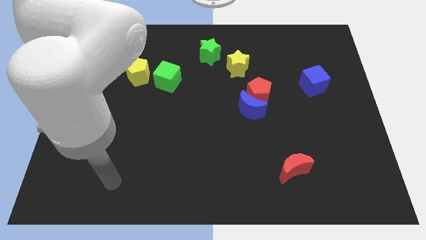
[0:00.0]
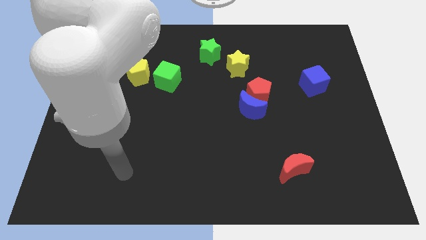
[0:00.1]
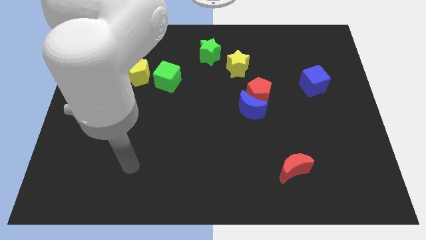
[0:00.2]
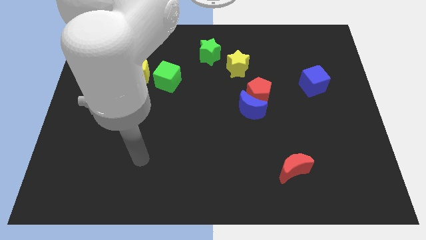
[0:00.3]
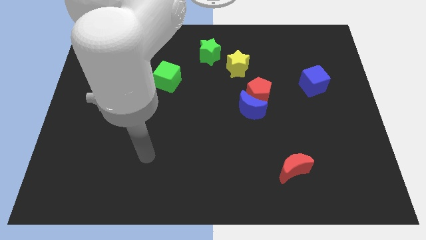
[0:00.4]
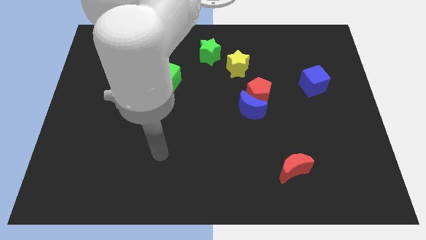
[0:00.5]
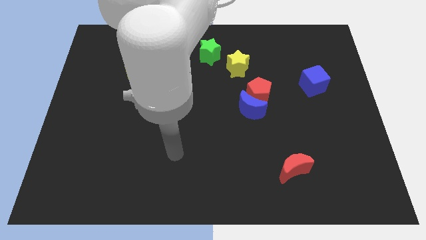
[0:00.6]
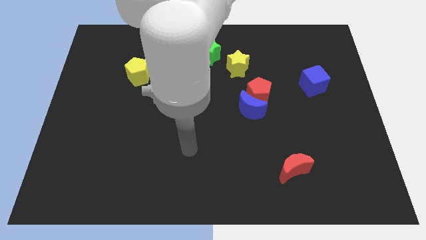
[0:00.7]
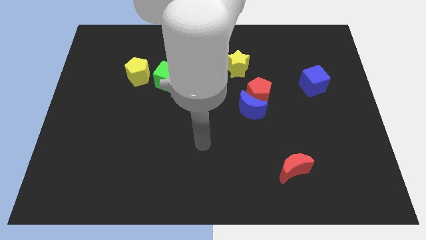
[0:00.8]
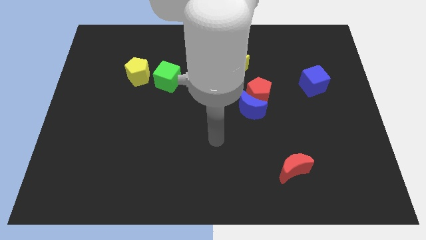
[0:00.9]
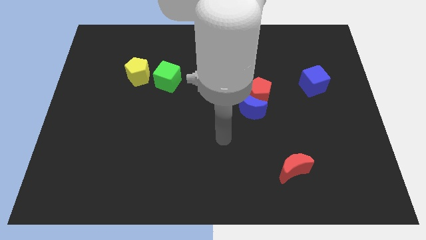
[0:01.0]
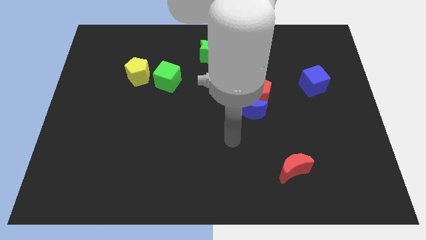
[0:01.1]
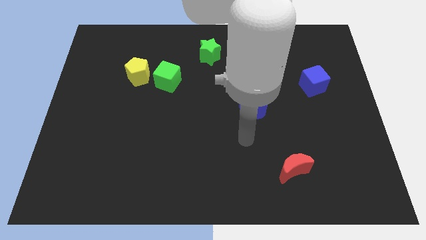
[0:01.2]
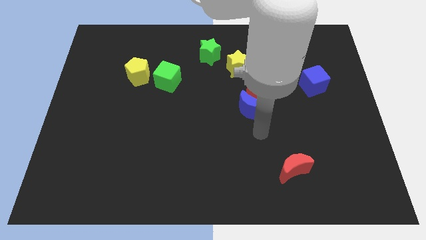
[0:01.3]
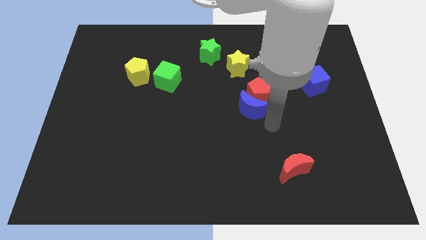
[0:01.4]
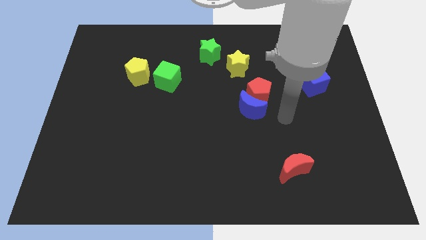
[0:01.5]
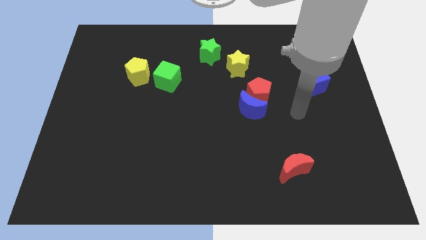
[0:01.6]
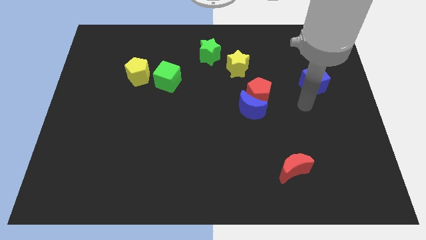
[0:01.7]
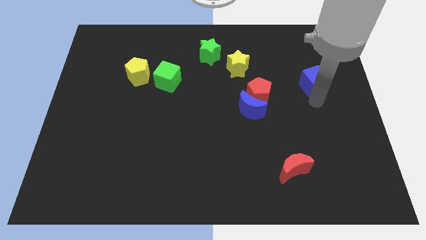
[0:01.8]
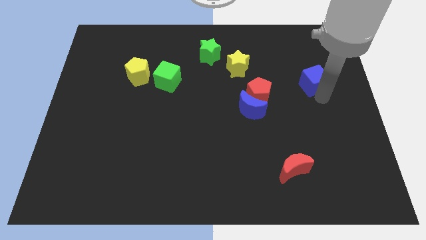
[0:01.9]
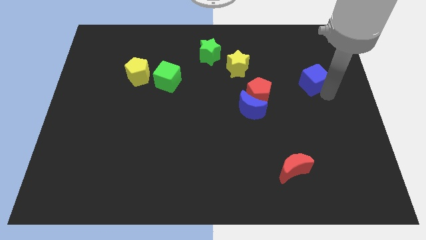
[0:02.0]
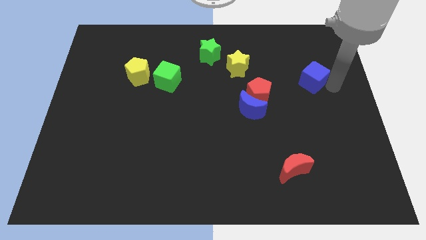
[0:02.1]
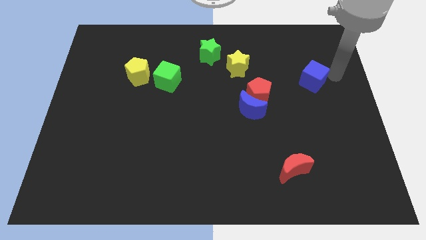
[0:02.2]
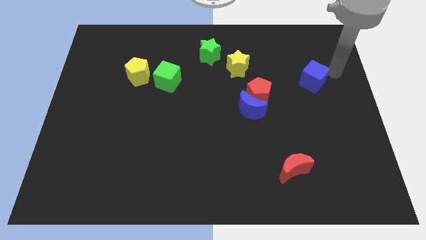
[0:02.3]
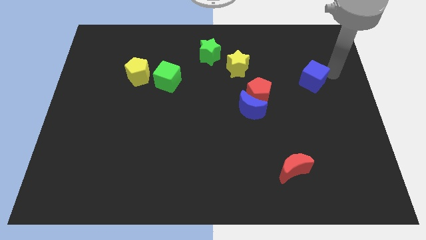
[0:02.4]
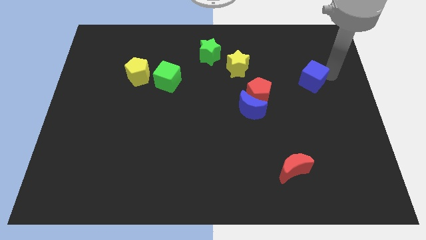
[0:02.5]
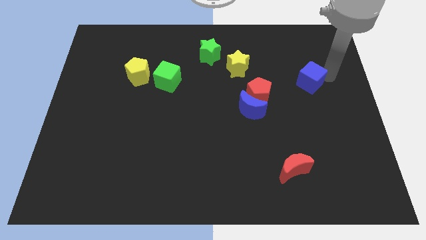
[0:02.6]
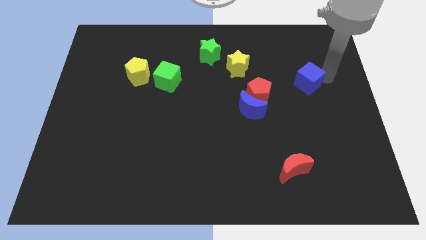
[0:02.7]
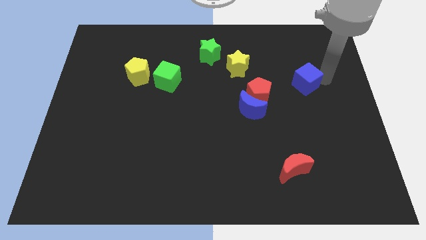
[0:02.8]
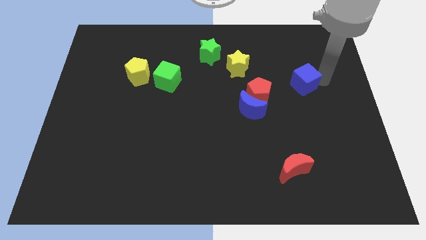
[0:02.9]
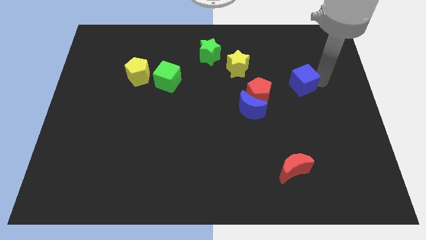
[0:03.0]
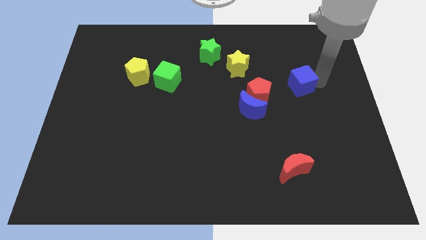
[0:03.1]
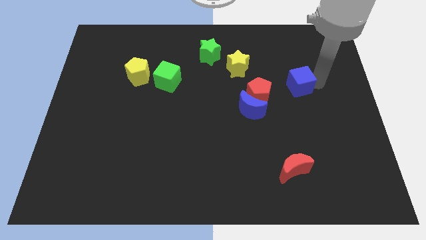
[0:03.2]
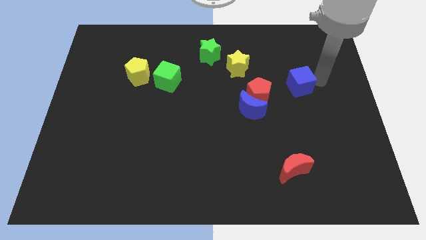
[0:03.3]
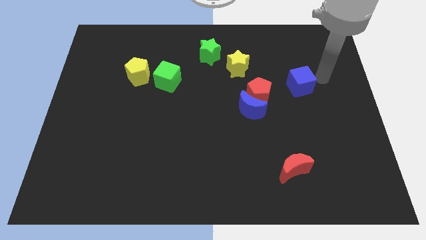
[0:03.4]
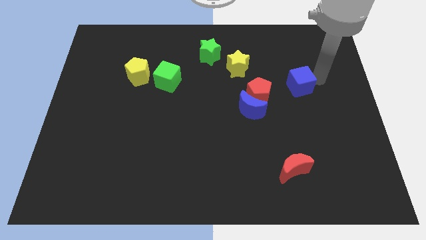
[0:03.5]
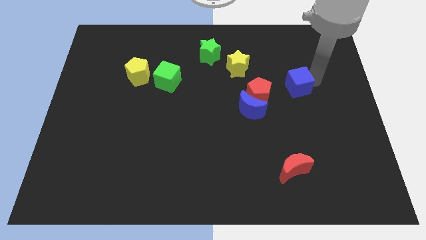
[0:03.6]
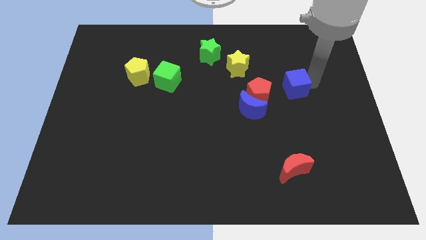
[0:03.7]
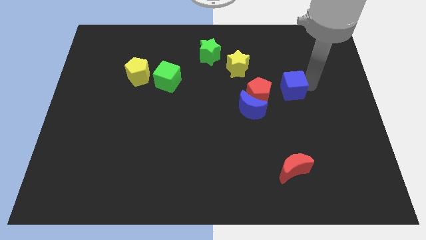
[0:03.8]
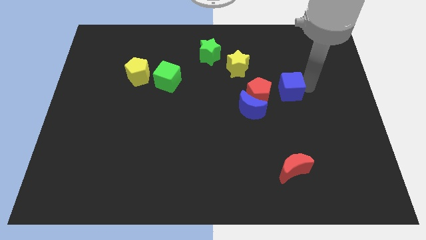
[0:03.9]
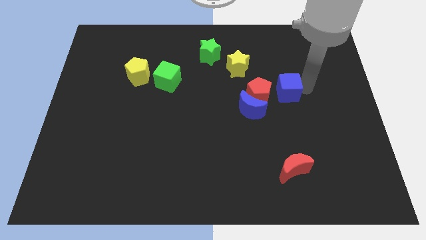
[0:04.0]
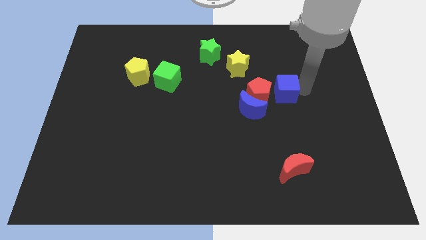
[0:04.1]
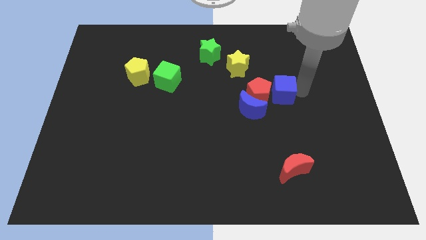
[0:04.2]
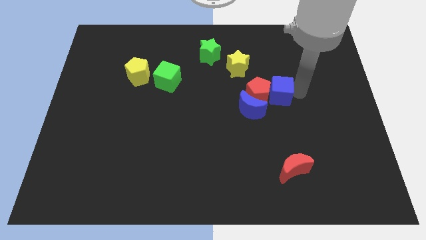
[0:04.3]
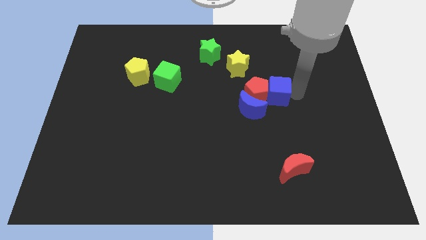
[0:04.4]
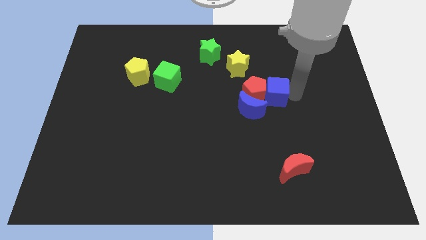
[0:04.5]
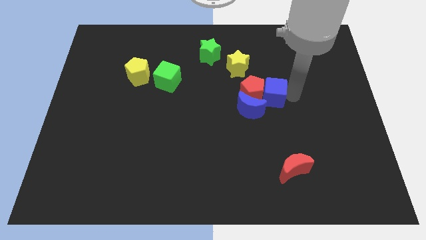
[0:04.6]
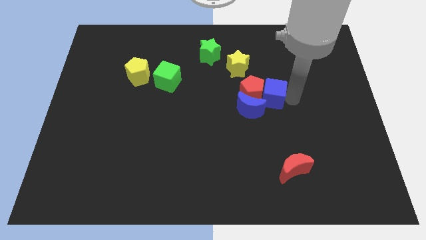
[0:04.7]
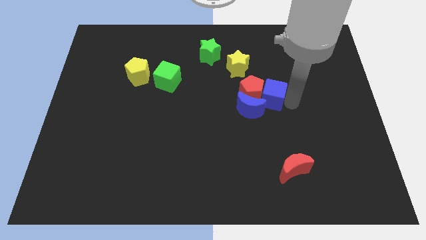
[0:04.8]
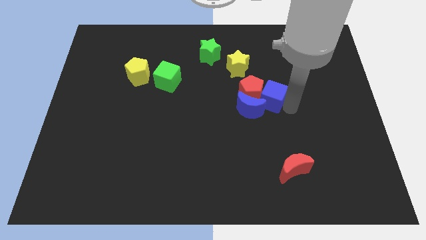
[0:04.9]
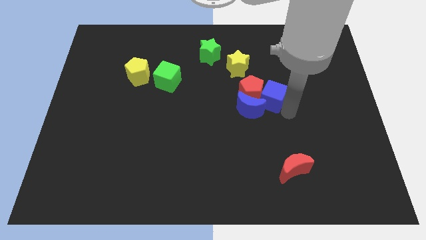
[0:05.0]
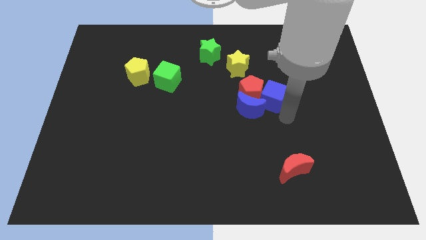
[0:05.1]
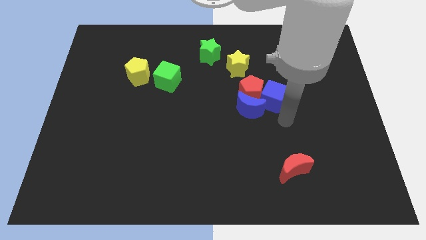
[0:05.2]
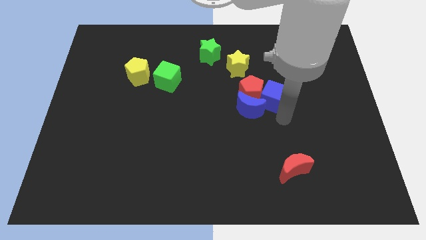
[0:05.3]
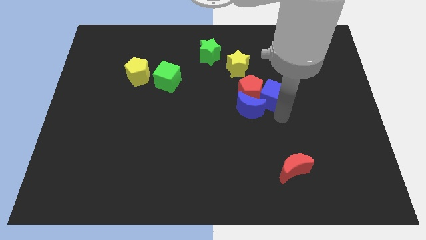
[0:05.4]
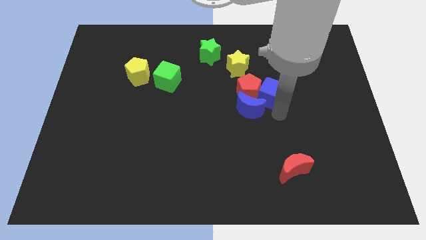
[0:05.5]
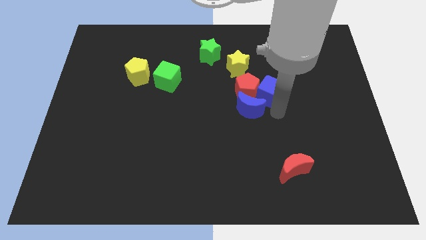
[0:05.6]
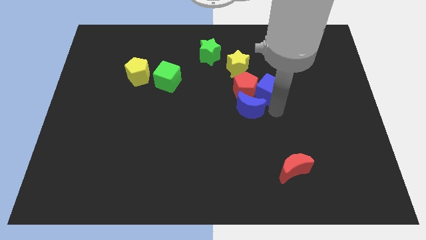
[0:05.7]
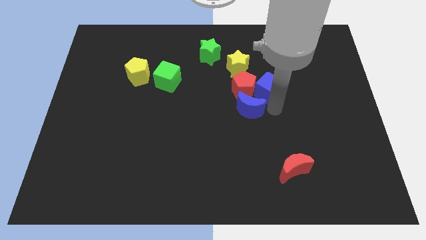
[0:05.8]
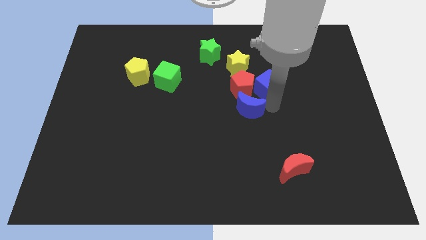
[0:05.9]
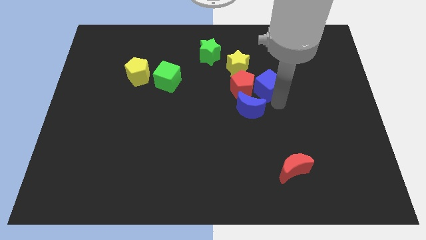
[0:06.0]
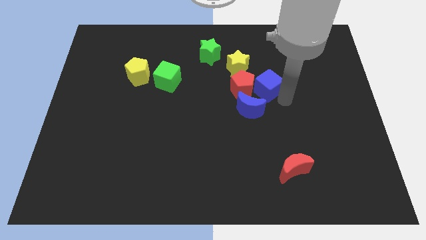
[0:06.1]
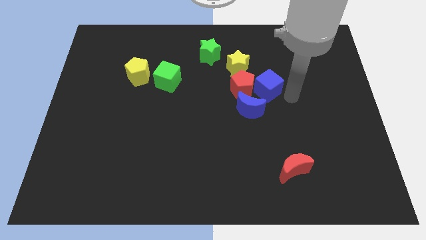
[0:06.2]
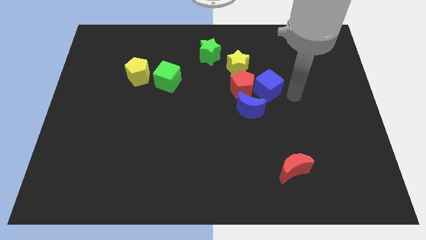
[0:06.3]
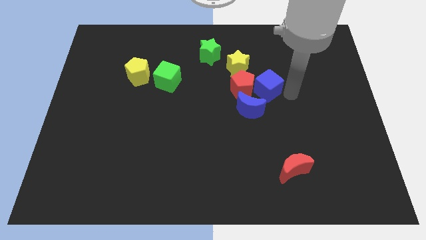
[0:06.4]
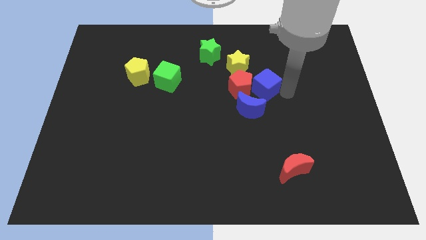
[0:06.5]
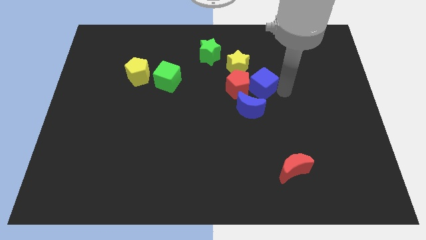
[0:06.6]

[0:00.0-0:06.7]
push the blue cube to the center
